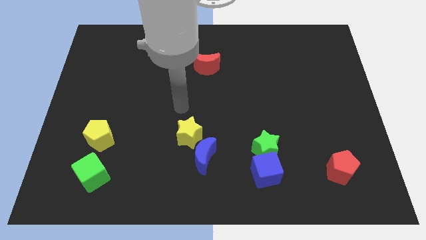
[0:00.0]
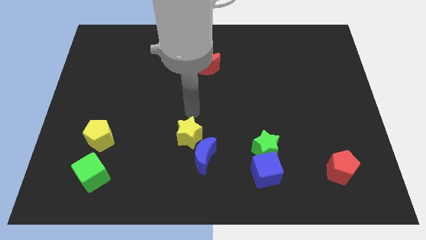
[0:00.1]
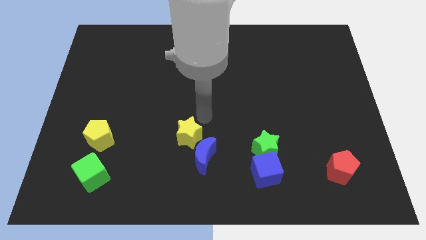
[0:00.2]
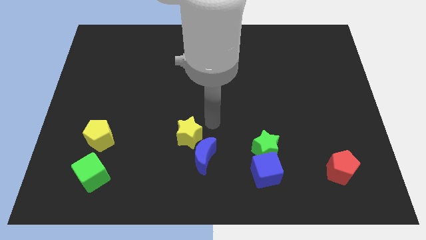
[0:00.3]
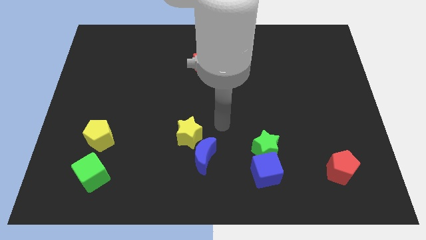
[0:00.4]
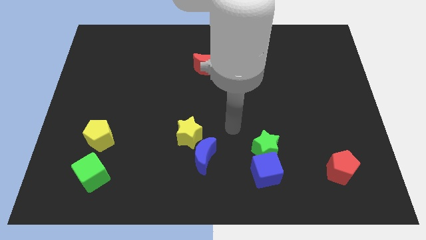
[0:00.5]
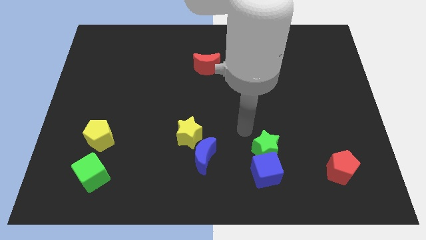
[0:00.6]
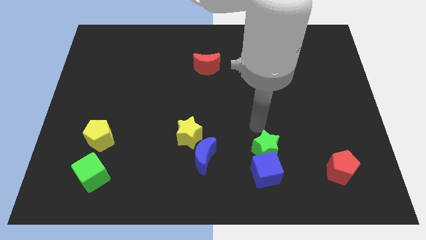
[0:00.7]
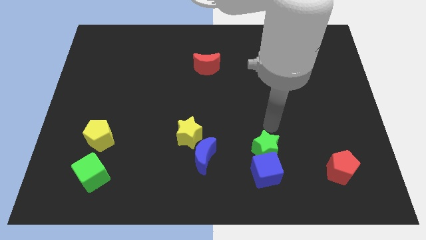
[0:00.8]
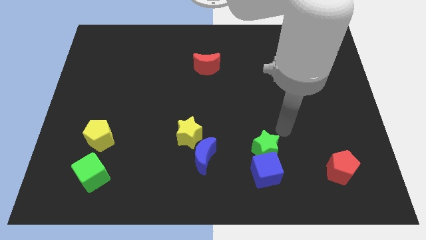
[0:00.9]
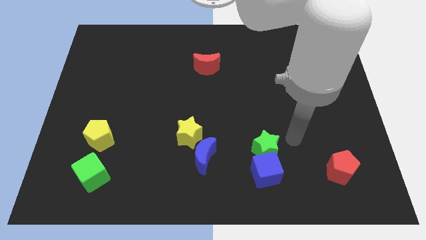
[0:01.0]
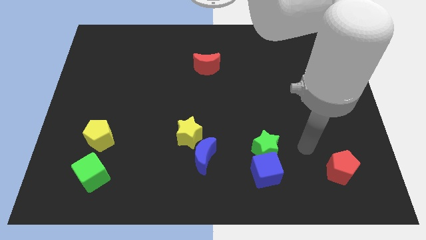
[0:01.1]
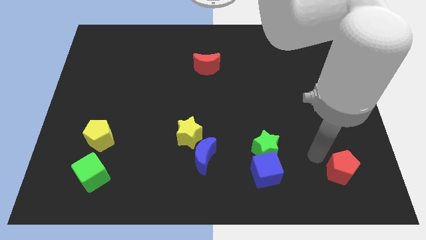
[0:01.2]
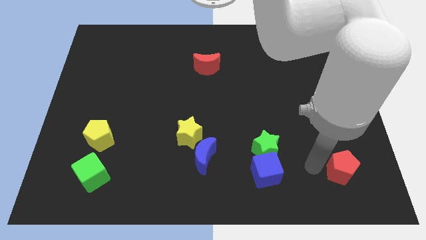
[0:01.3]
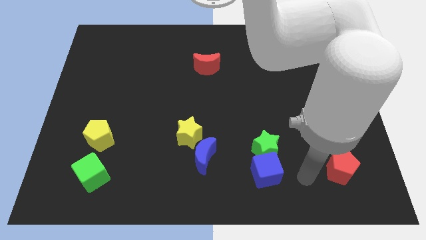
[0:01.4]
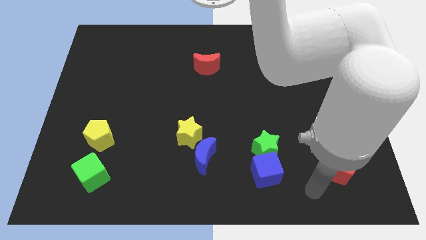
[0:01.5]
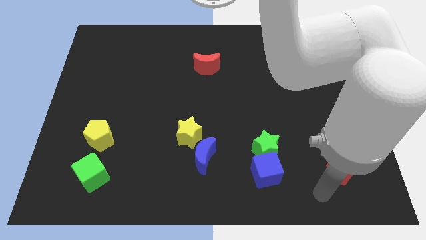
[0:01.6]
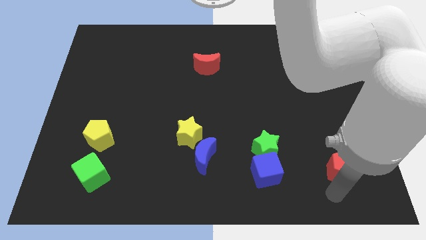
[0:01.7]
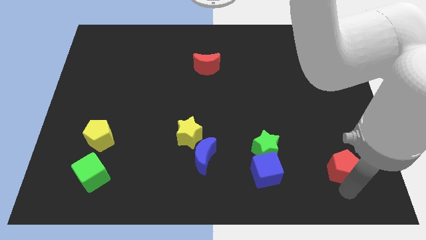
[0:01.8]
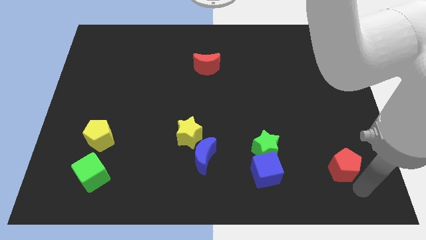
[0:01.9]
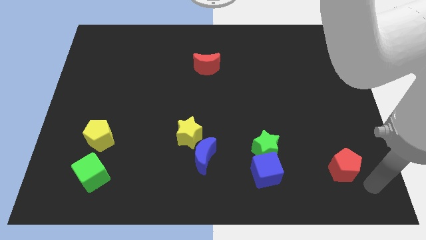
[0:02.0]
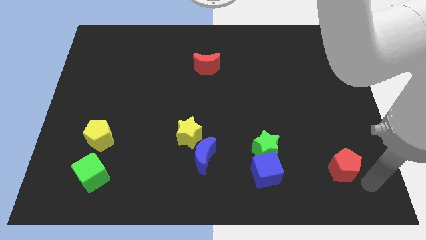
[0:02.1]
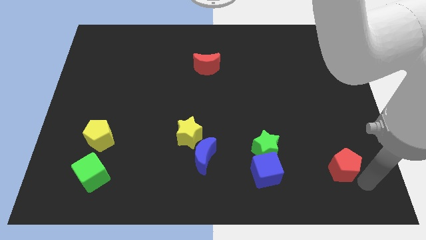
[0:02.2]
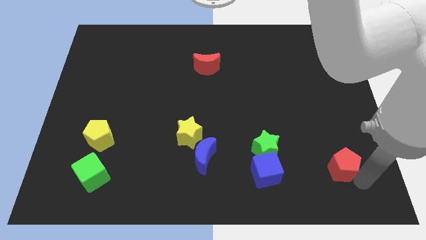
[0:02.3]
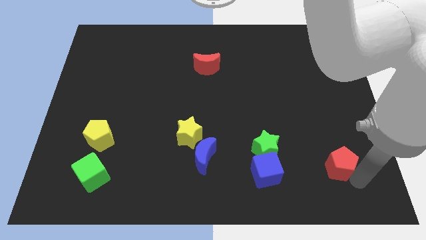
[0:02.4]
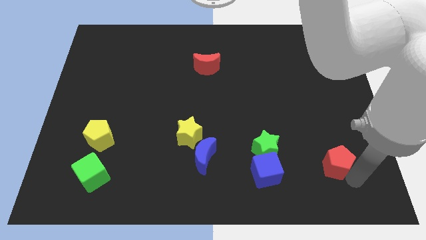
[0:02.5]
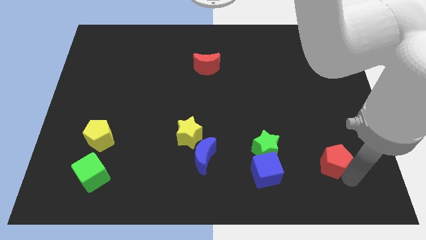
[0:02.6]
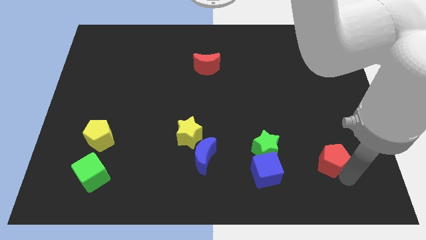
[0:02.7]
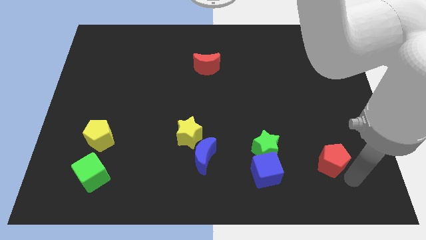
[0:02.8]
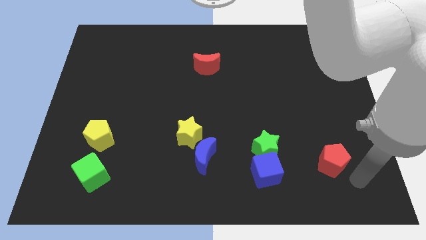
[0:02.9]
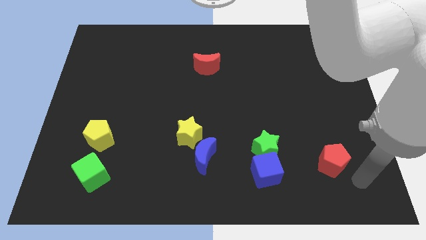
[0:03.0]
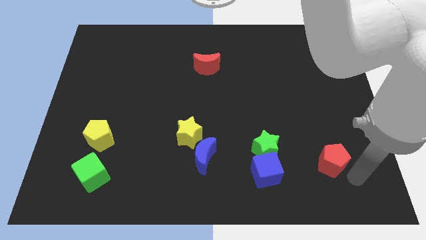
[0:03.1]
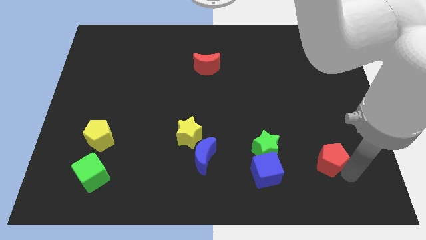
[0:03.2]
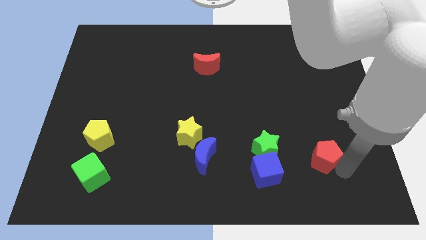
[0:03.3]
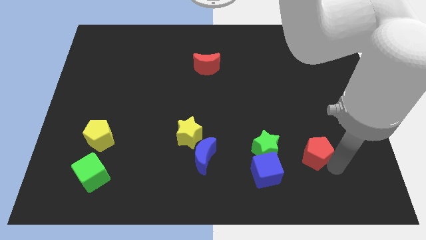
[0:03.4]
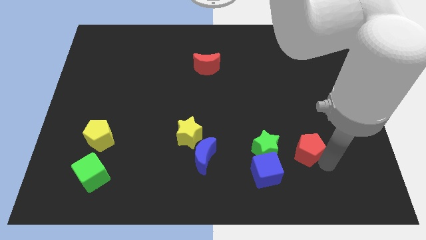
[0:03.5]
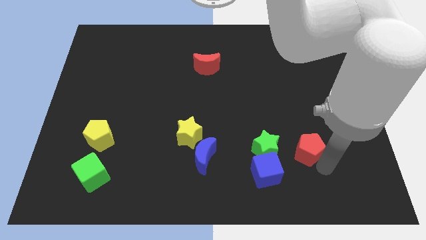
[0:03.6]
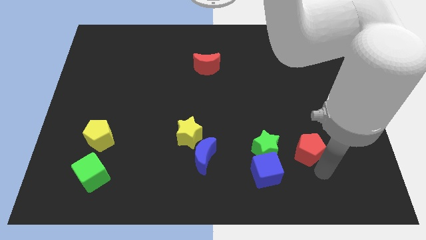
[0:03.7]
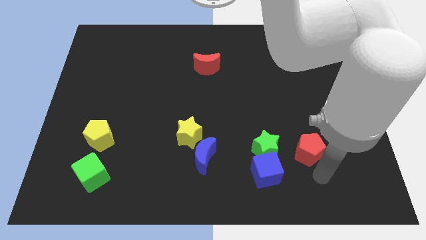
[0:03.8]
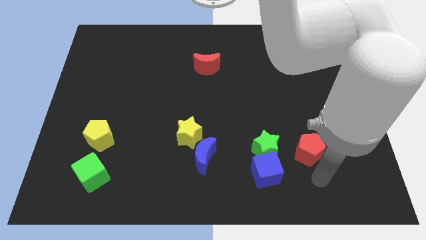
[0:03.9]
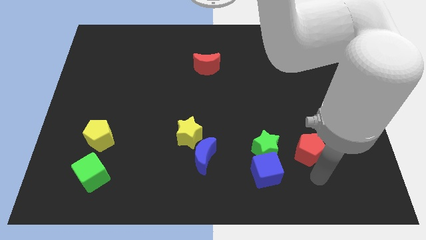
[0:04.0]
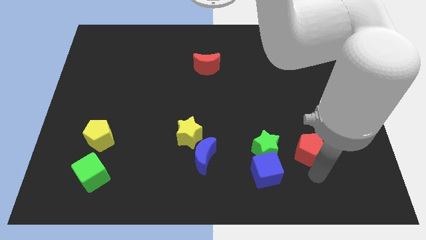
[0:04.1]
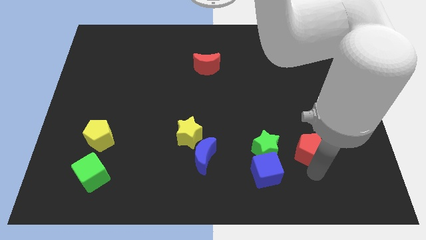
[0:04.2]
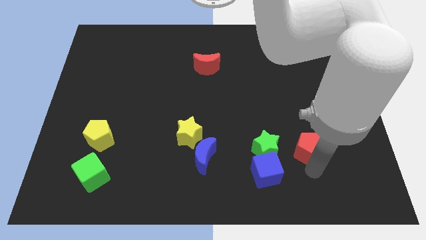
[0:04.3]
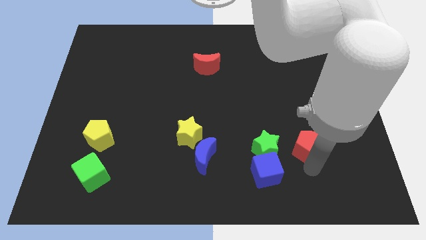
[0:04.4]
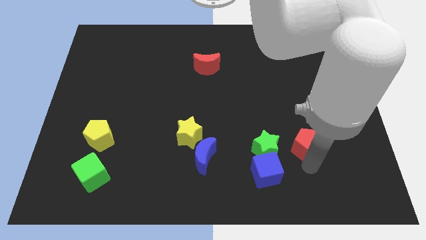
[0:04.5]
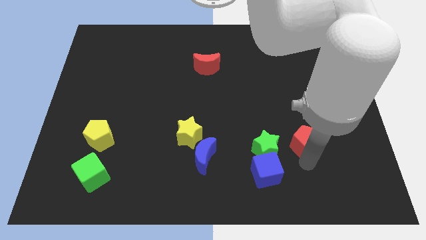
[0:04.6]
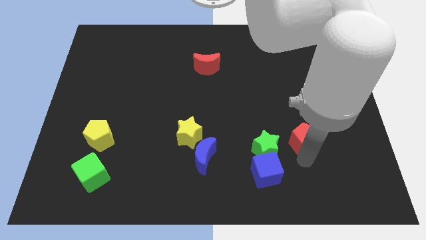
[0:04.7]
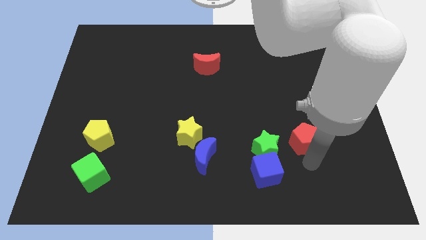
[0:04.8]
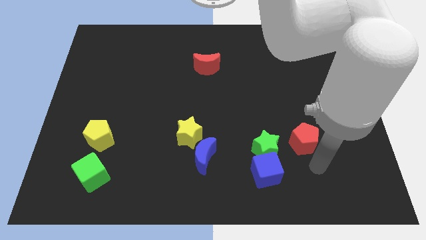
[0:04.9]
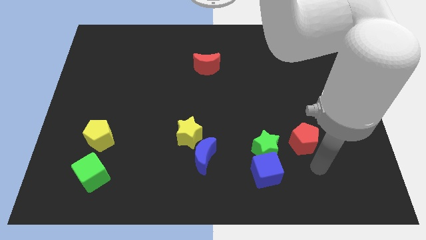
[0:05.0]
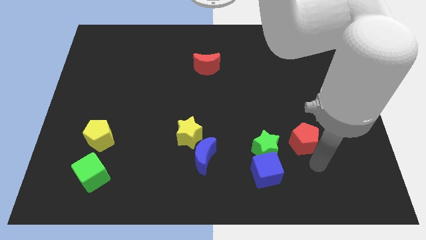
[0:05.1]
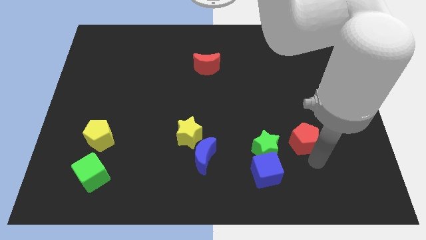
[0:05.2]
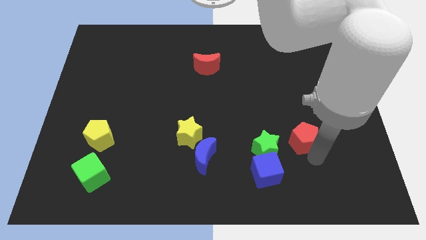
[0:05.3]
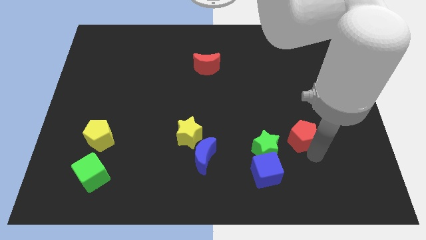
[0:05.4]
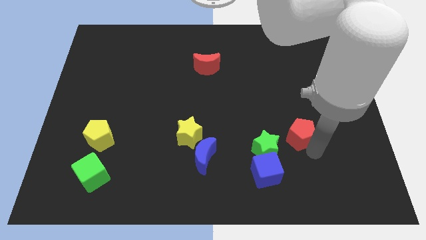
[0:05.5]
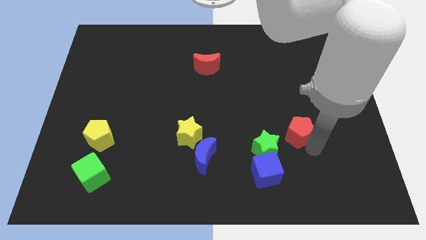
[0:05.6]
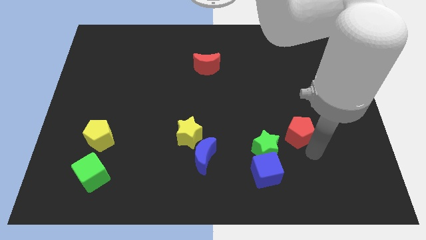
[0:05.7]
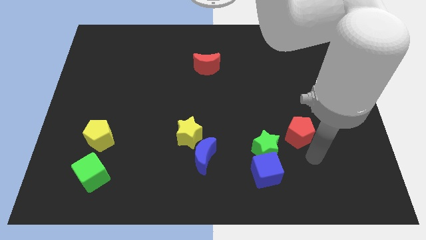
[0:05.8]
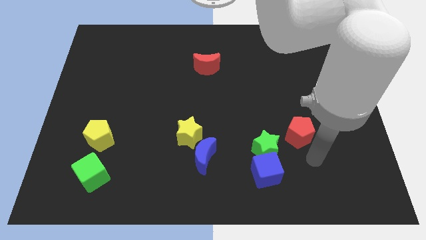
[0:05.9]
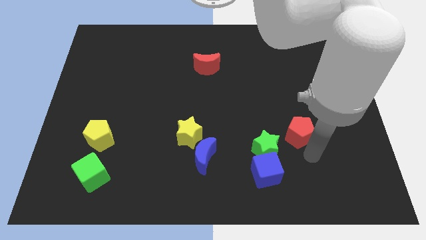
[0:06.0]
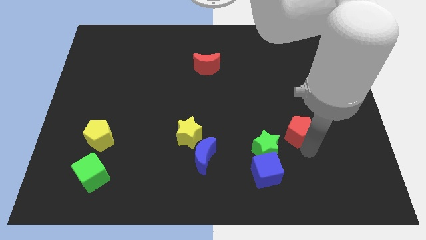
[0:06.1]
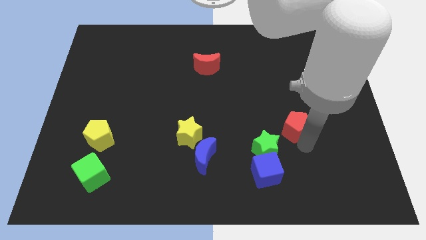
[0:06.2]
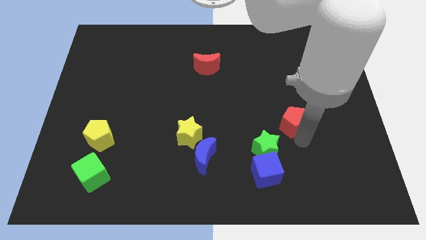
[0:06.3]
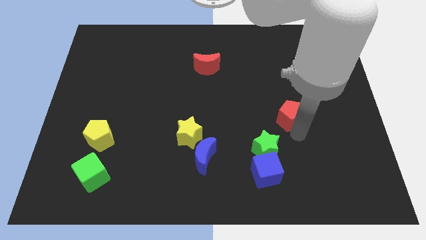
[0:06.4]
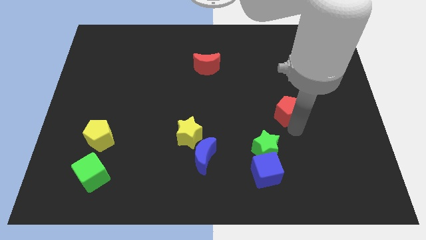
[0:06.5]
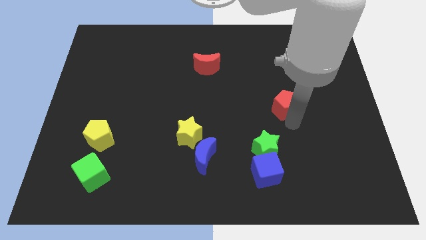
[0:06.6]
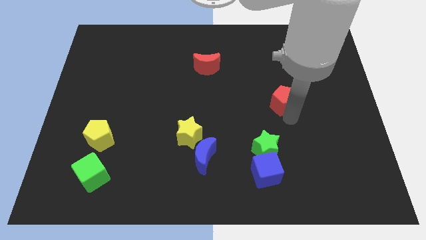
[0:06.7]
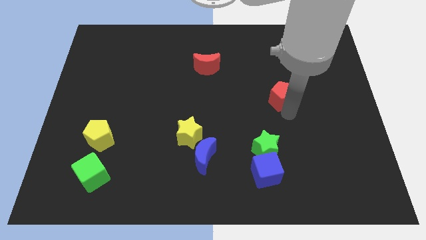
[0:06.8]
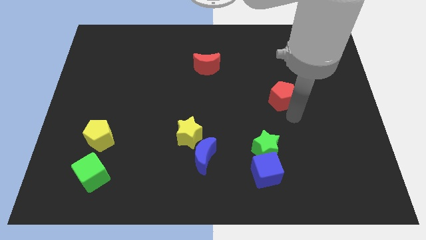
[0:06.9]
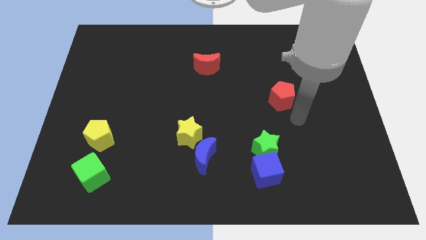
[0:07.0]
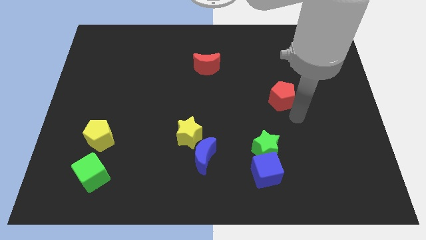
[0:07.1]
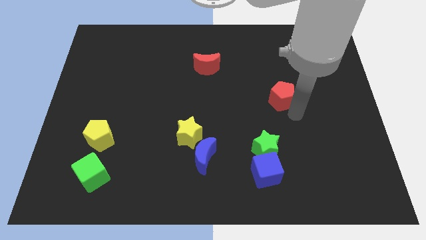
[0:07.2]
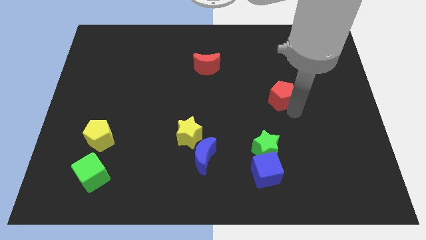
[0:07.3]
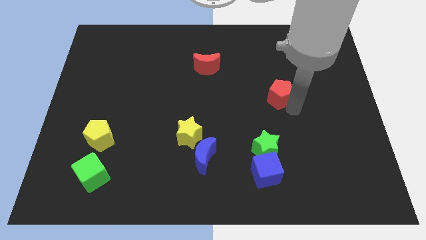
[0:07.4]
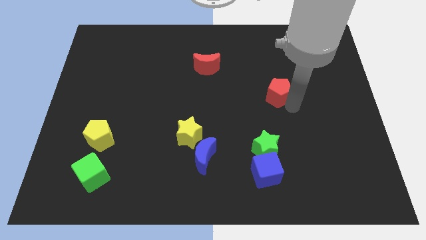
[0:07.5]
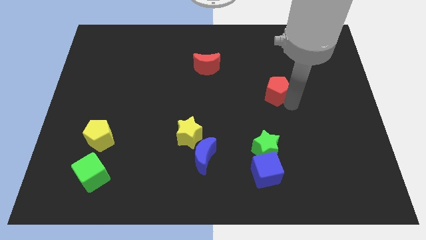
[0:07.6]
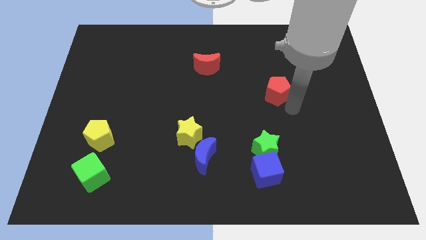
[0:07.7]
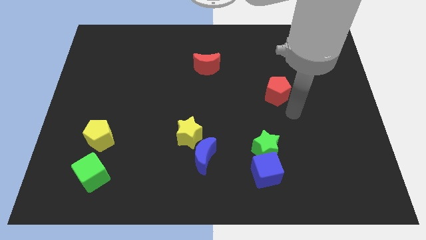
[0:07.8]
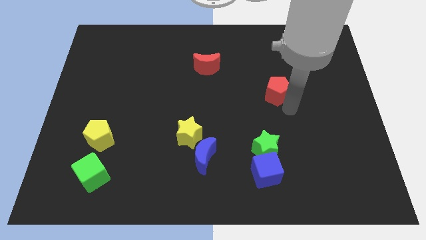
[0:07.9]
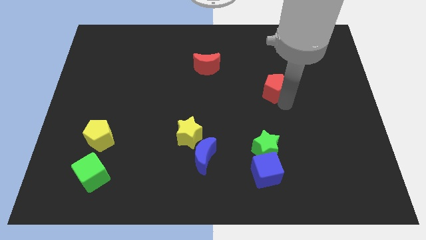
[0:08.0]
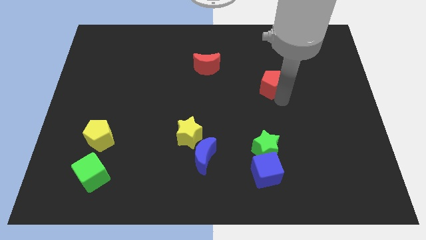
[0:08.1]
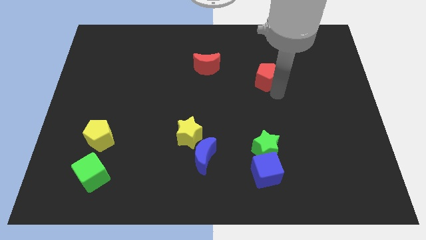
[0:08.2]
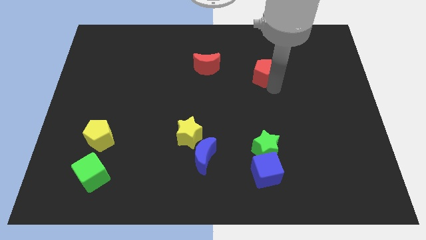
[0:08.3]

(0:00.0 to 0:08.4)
put the red pentagon just right of the red moon
